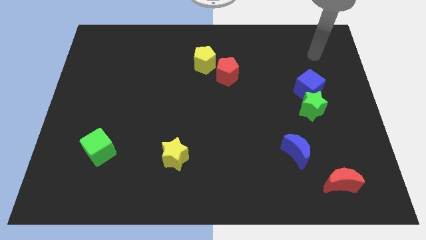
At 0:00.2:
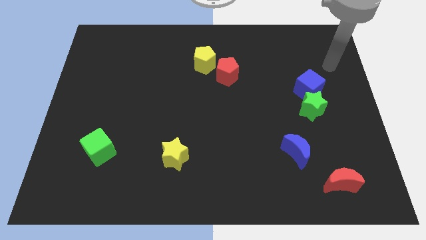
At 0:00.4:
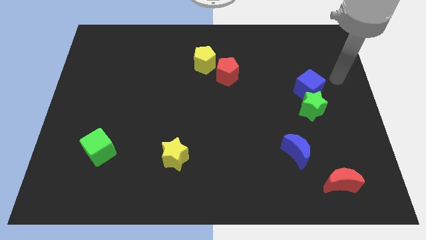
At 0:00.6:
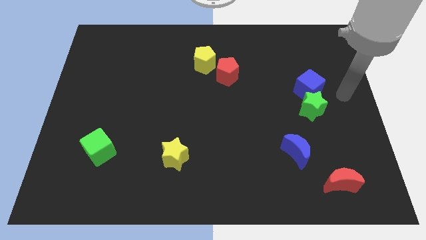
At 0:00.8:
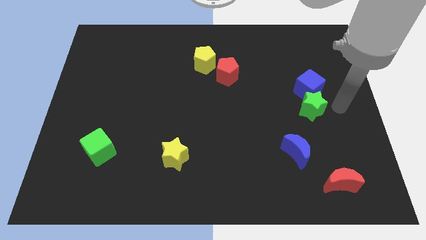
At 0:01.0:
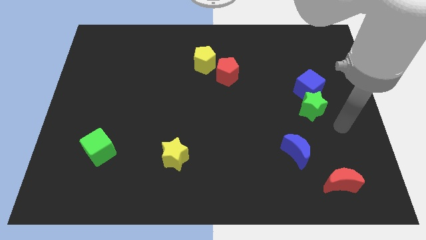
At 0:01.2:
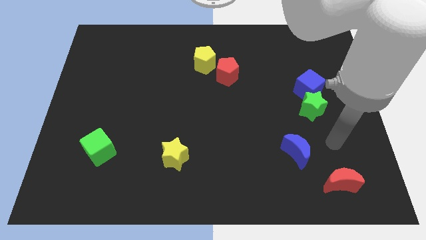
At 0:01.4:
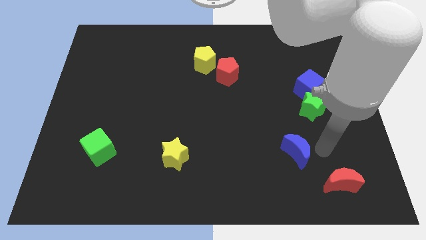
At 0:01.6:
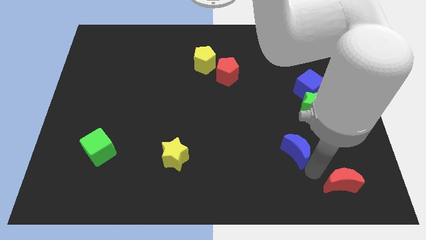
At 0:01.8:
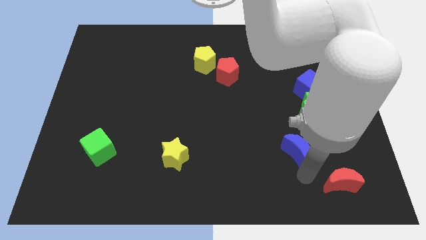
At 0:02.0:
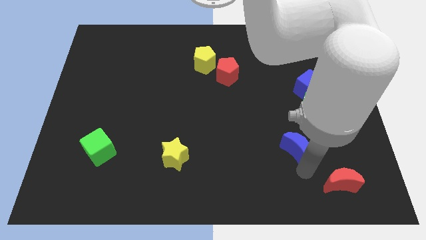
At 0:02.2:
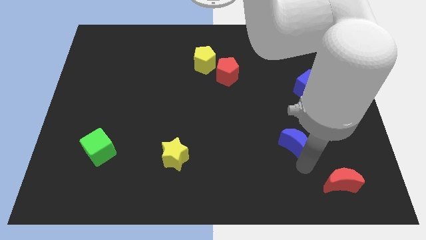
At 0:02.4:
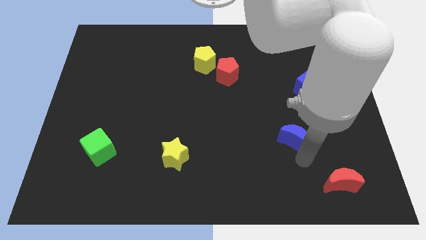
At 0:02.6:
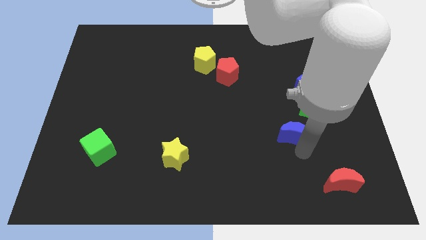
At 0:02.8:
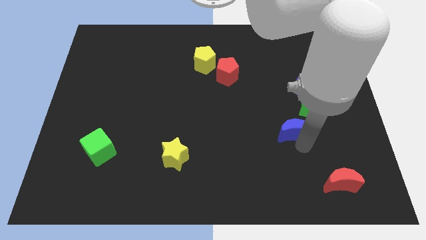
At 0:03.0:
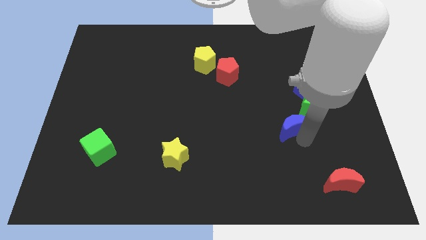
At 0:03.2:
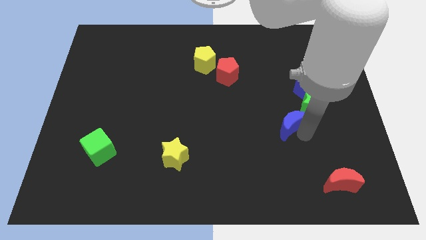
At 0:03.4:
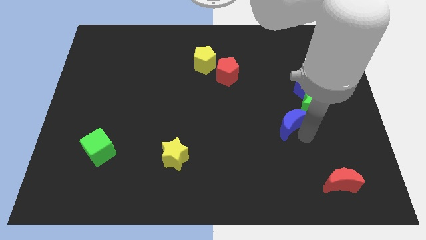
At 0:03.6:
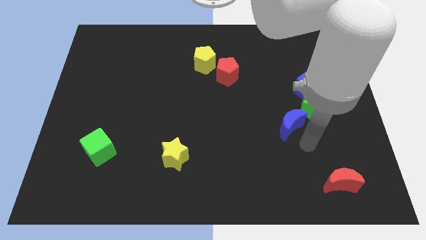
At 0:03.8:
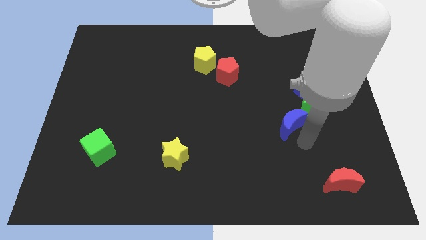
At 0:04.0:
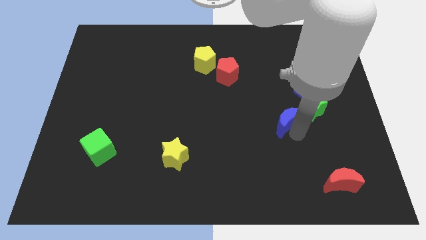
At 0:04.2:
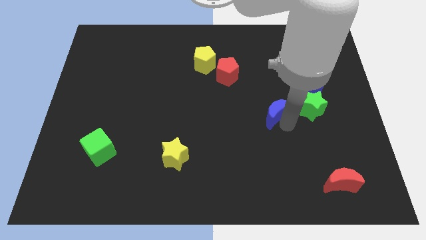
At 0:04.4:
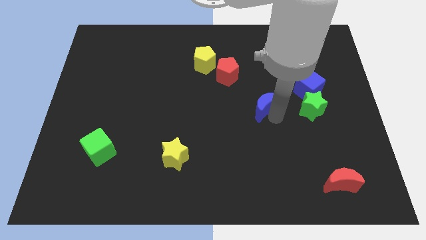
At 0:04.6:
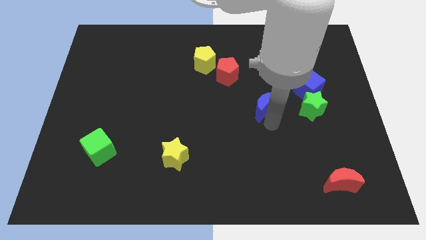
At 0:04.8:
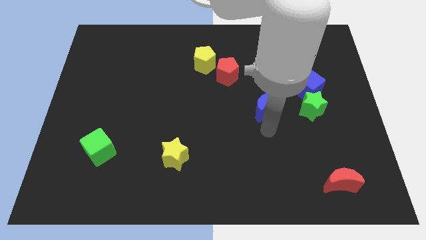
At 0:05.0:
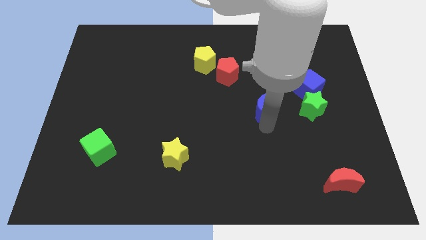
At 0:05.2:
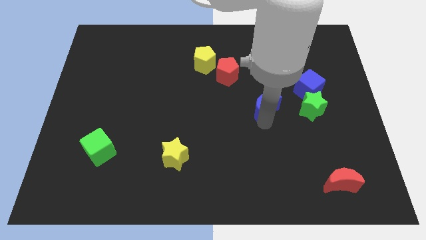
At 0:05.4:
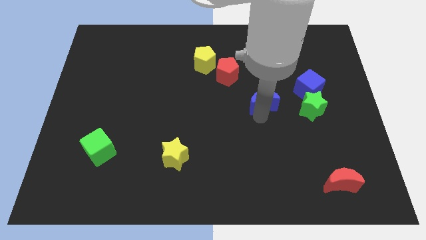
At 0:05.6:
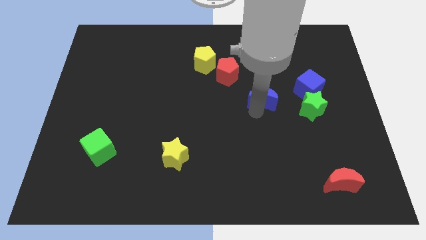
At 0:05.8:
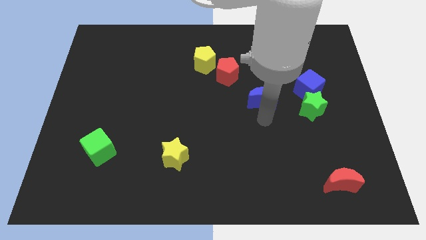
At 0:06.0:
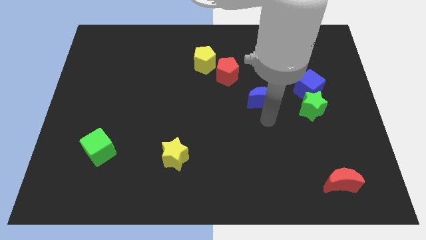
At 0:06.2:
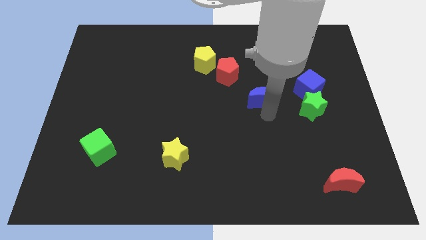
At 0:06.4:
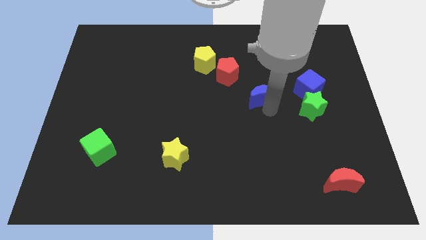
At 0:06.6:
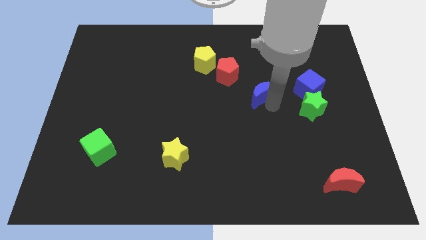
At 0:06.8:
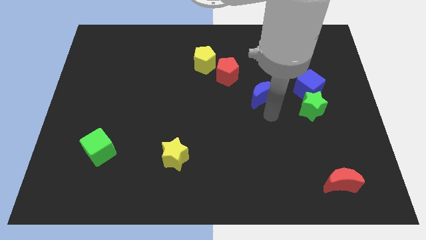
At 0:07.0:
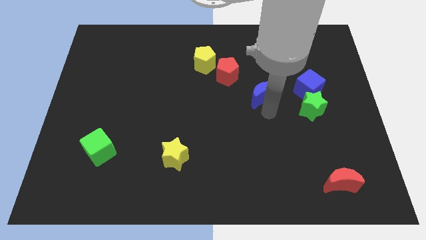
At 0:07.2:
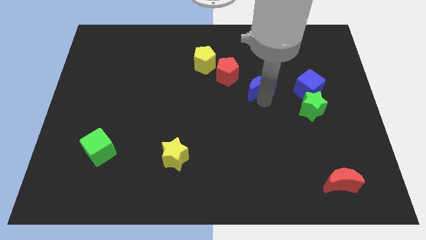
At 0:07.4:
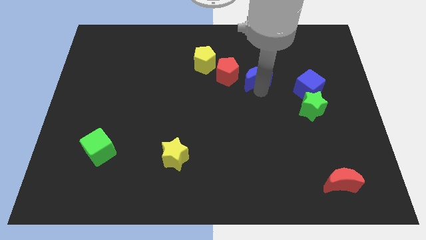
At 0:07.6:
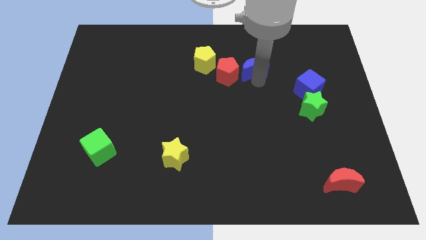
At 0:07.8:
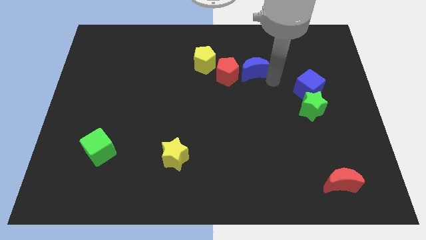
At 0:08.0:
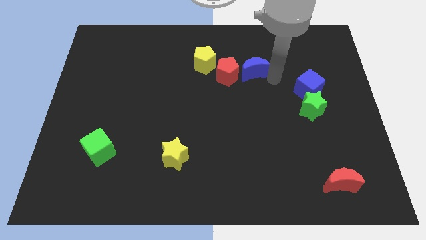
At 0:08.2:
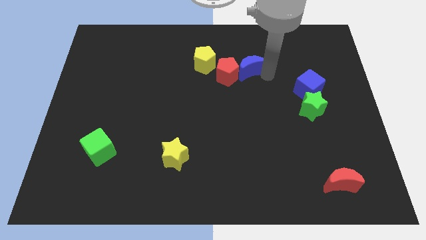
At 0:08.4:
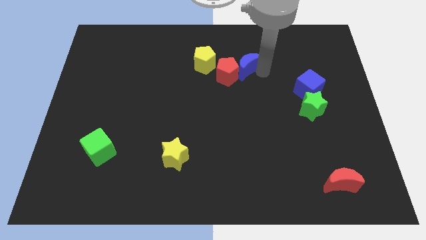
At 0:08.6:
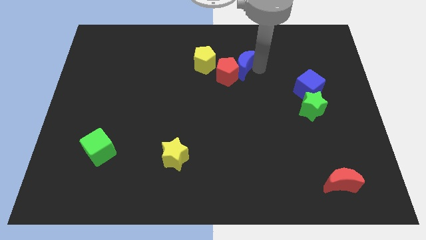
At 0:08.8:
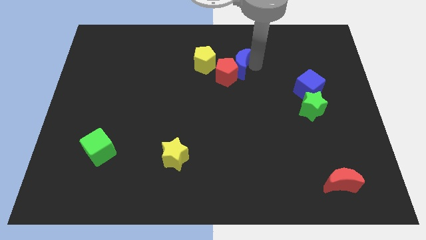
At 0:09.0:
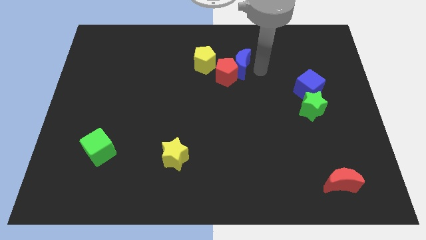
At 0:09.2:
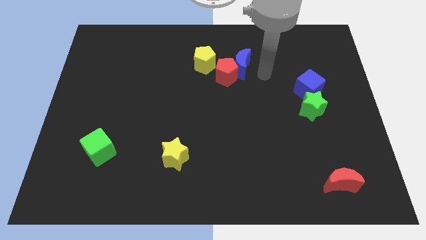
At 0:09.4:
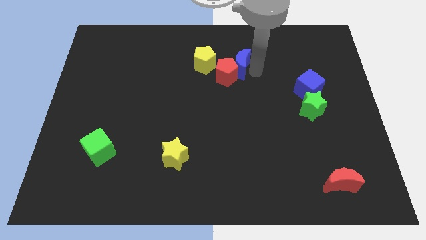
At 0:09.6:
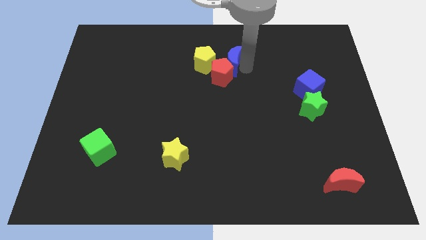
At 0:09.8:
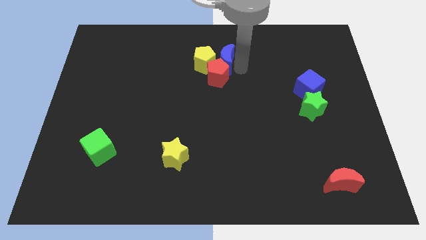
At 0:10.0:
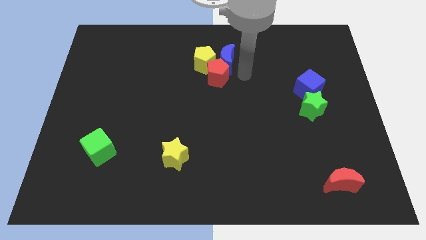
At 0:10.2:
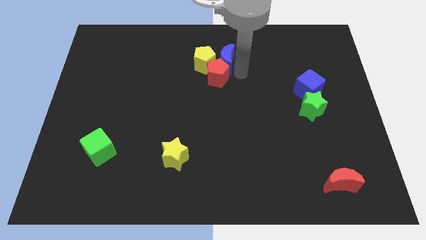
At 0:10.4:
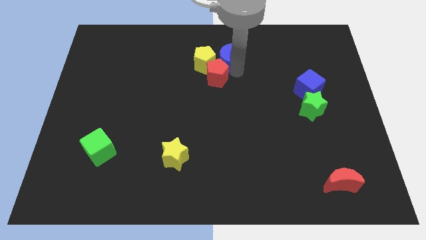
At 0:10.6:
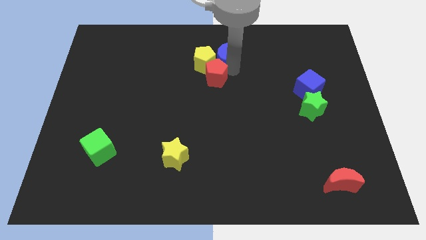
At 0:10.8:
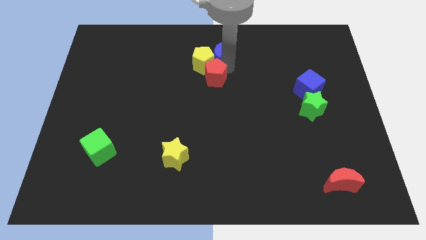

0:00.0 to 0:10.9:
slide the blue moon to the top
